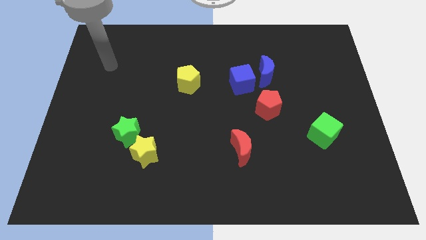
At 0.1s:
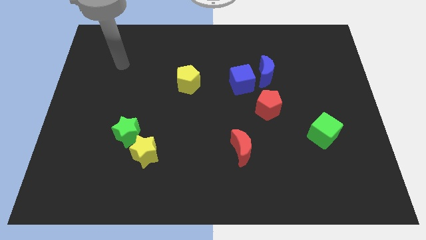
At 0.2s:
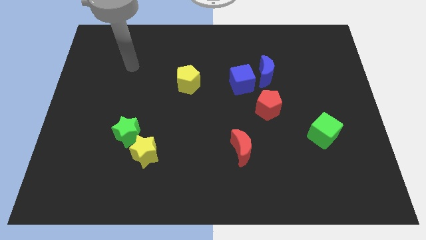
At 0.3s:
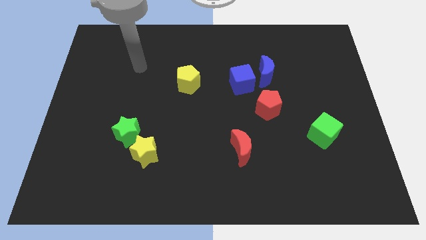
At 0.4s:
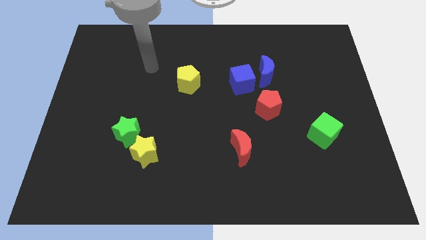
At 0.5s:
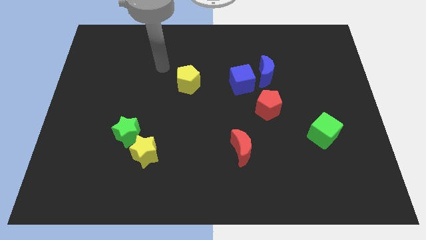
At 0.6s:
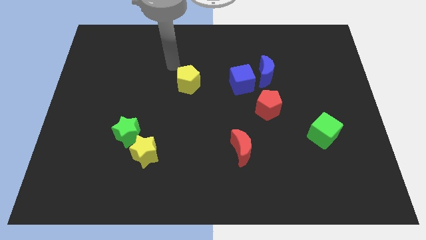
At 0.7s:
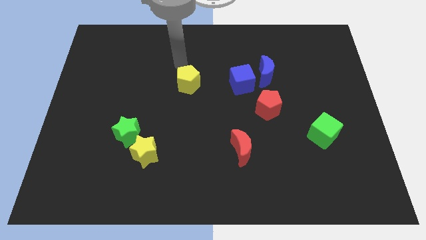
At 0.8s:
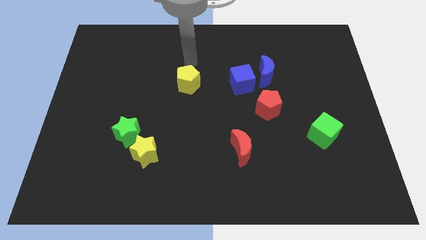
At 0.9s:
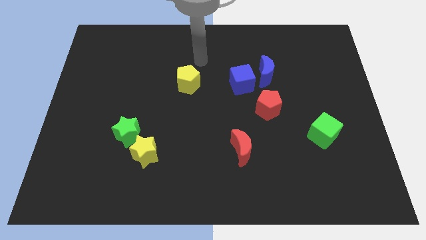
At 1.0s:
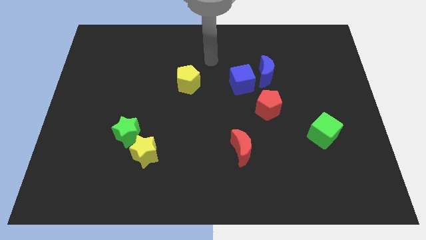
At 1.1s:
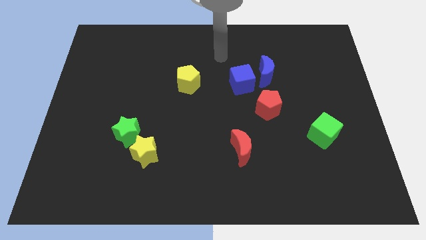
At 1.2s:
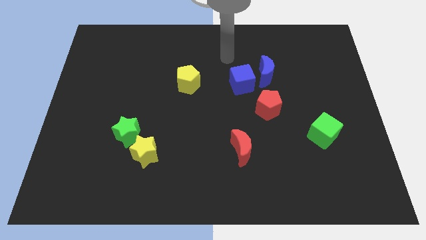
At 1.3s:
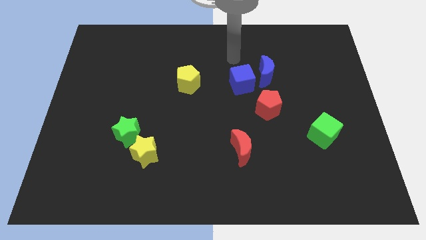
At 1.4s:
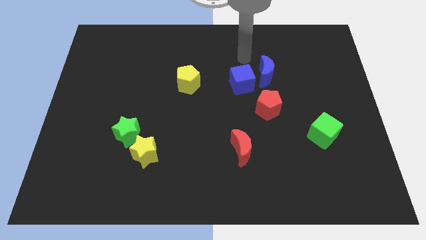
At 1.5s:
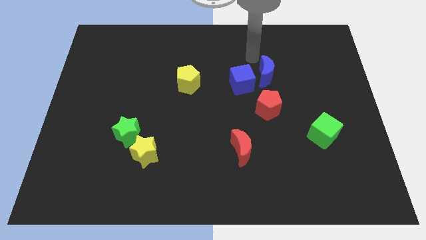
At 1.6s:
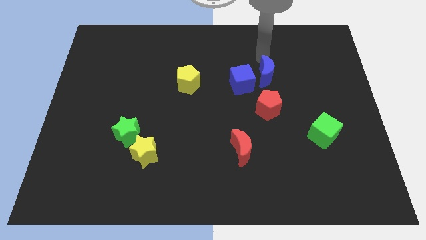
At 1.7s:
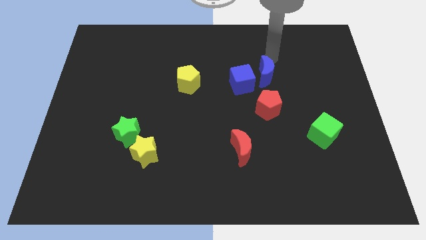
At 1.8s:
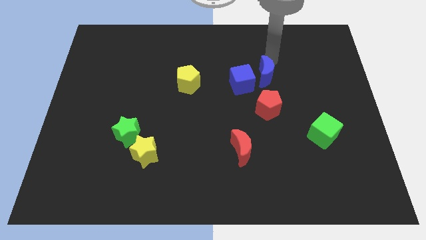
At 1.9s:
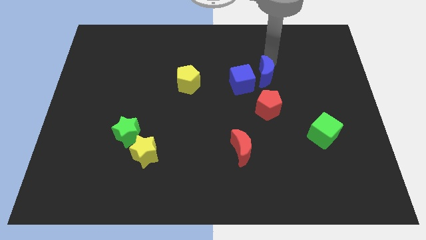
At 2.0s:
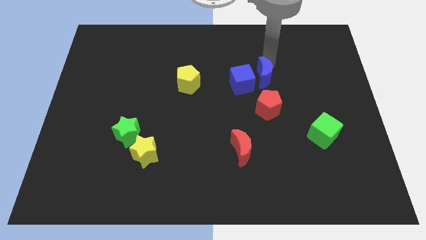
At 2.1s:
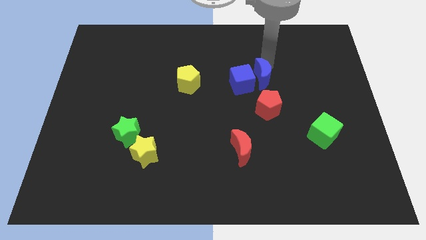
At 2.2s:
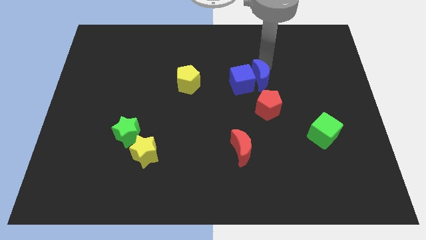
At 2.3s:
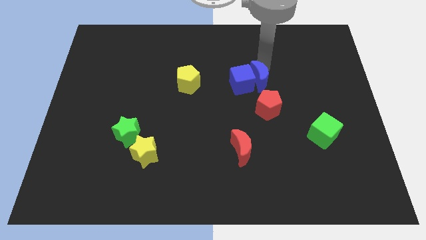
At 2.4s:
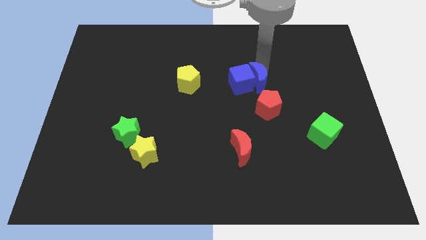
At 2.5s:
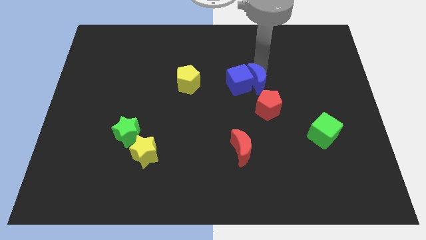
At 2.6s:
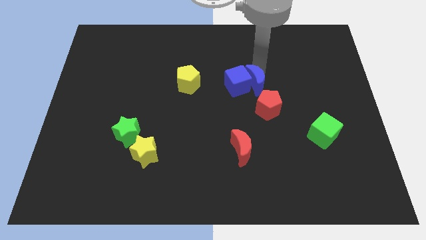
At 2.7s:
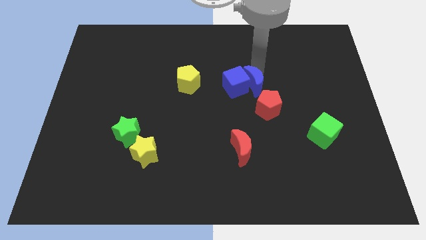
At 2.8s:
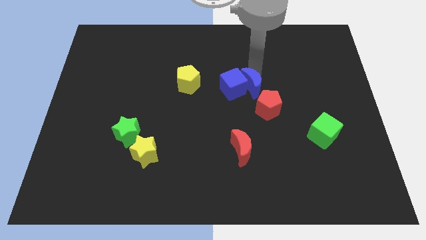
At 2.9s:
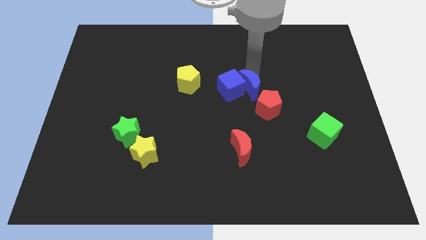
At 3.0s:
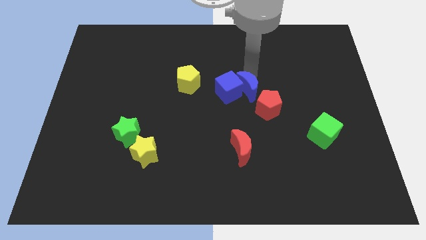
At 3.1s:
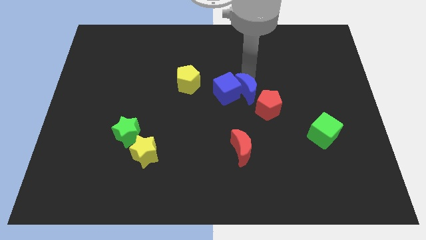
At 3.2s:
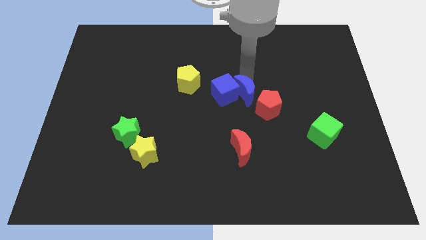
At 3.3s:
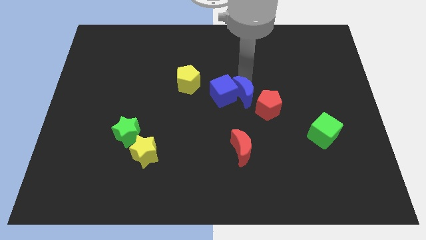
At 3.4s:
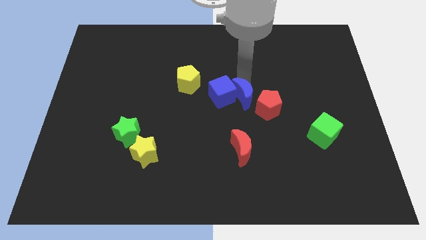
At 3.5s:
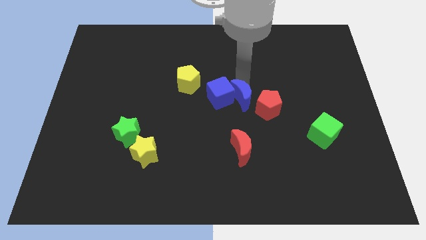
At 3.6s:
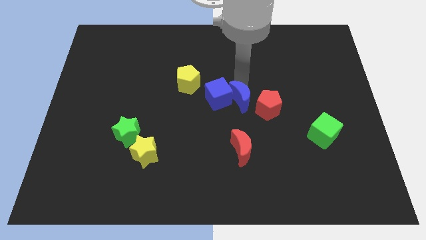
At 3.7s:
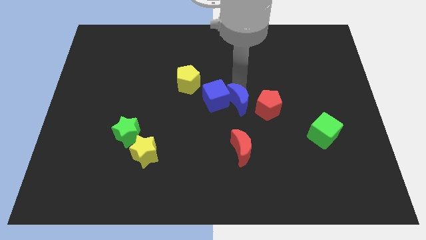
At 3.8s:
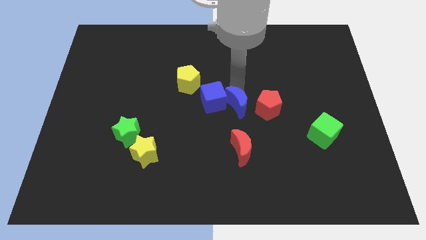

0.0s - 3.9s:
slightly move the blue moon down

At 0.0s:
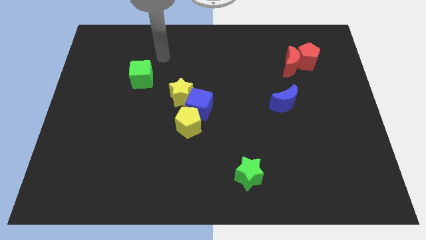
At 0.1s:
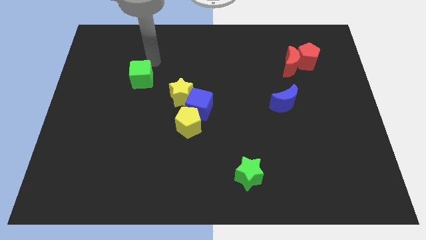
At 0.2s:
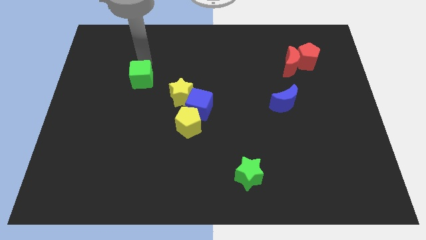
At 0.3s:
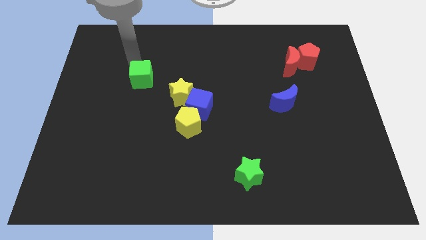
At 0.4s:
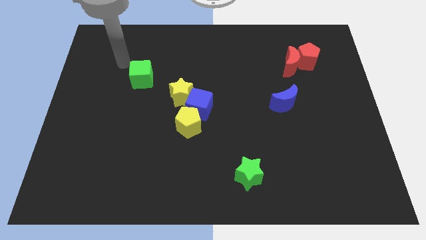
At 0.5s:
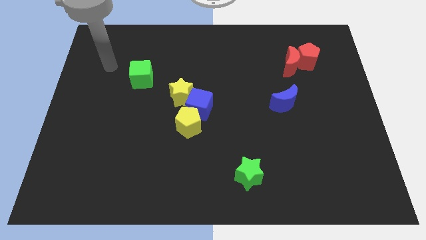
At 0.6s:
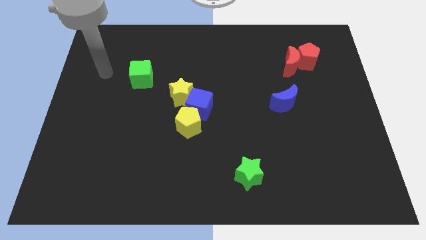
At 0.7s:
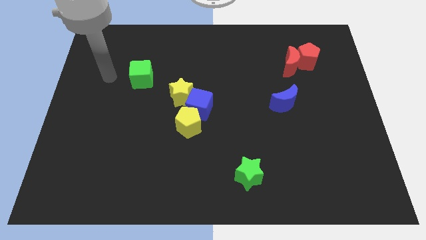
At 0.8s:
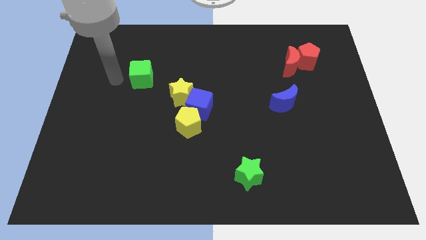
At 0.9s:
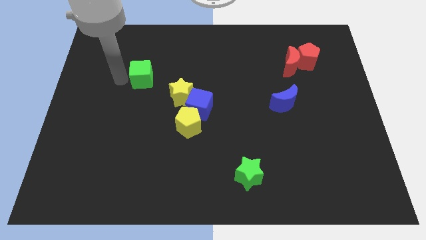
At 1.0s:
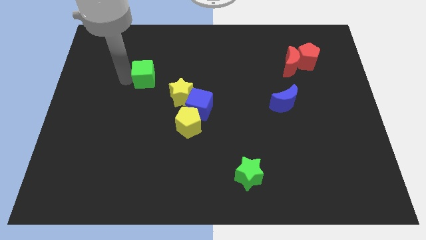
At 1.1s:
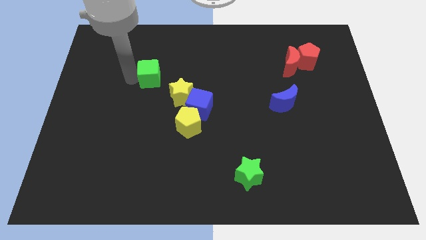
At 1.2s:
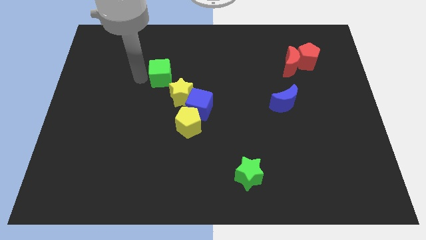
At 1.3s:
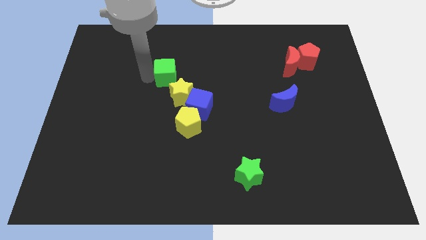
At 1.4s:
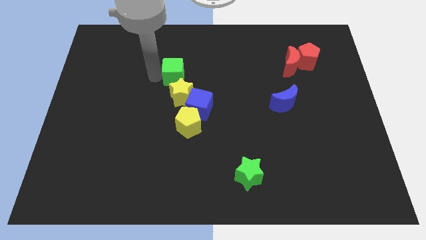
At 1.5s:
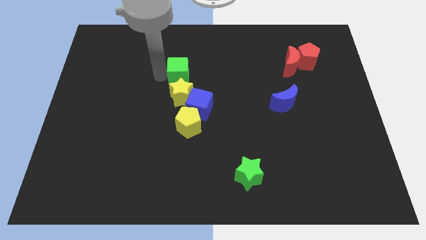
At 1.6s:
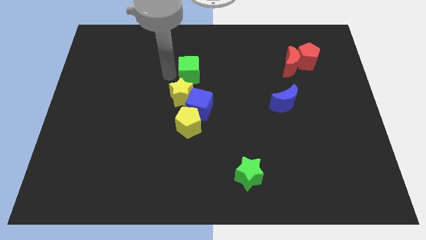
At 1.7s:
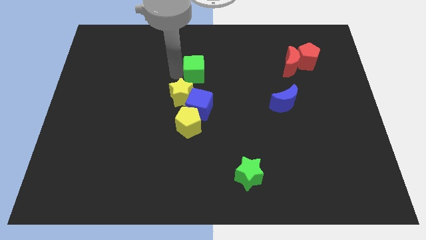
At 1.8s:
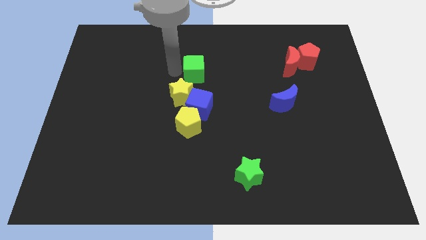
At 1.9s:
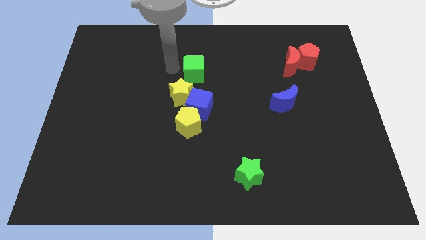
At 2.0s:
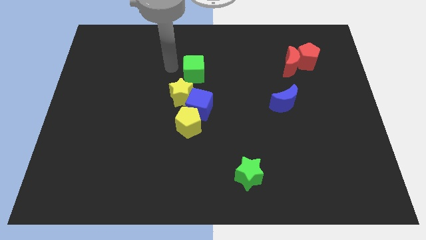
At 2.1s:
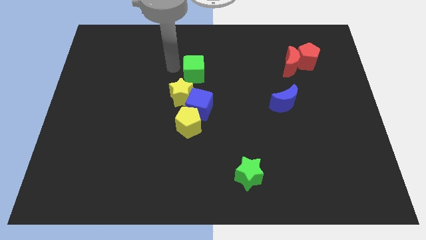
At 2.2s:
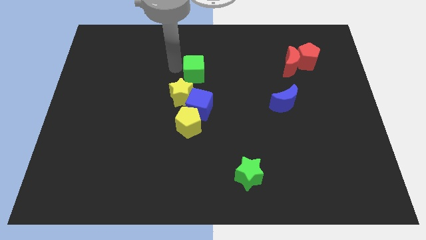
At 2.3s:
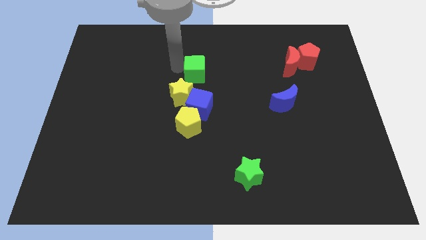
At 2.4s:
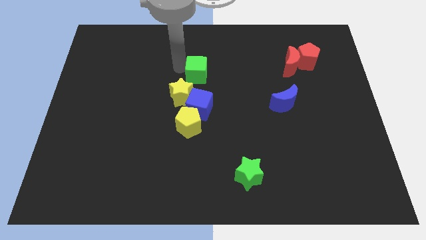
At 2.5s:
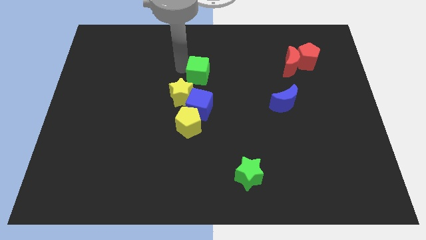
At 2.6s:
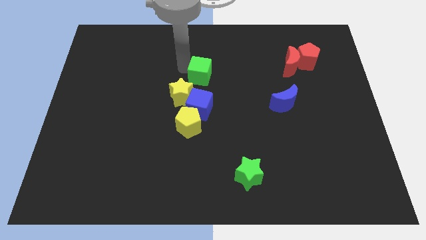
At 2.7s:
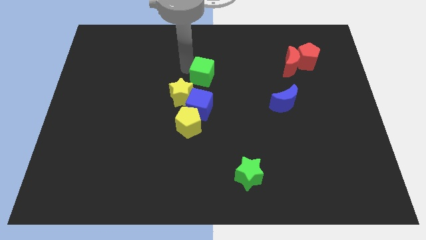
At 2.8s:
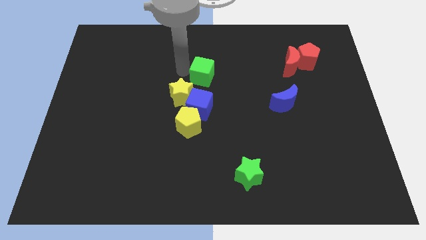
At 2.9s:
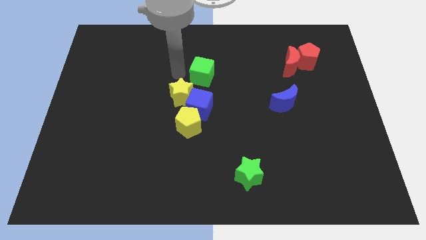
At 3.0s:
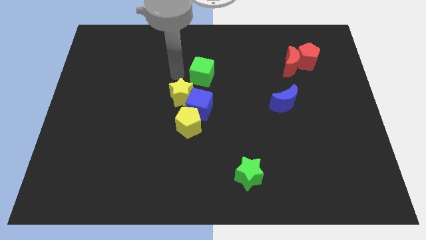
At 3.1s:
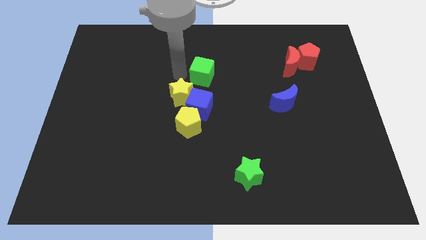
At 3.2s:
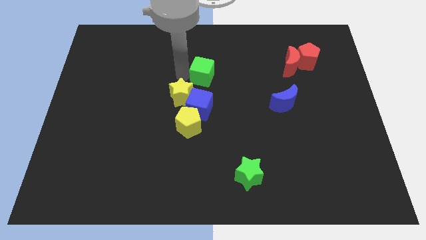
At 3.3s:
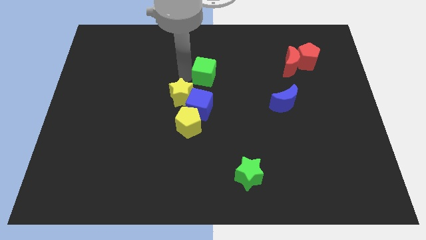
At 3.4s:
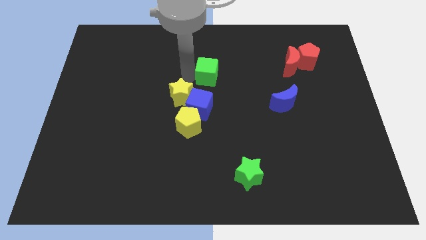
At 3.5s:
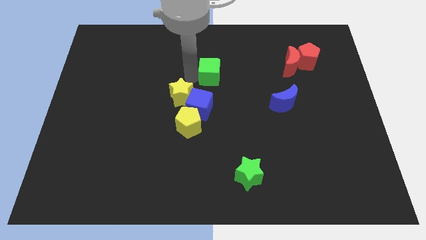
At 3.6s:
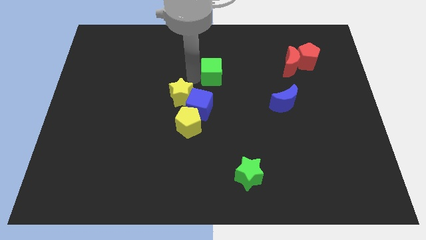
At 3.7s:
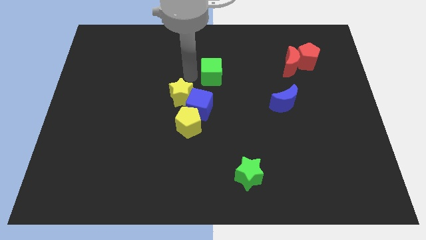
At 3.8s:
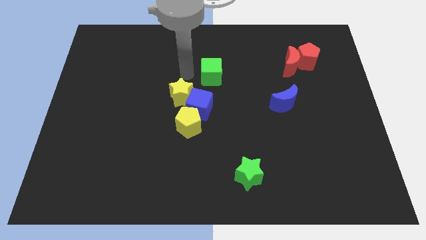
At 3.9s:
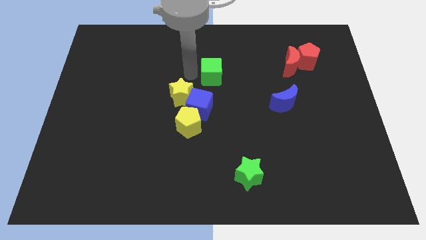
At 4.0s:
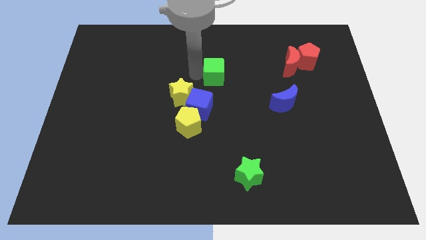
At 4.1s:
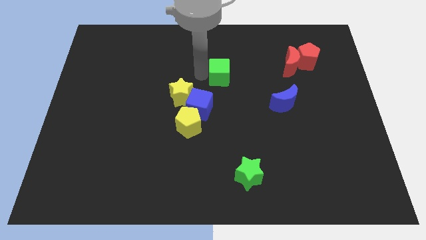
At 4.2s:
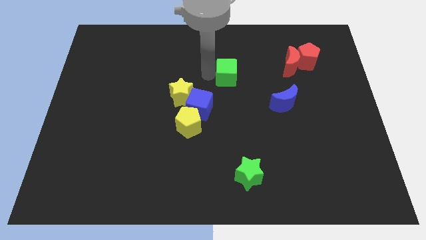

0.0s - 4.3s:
move the green cube right

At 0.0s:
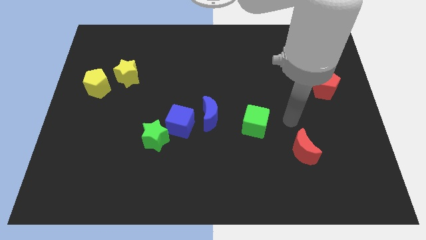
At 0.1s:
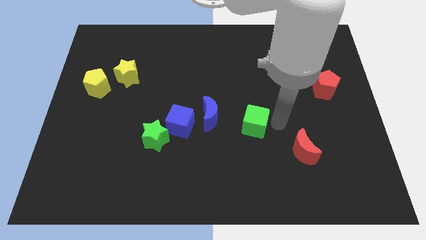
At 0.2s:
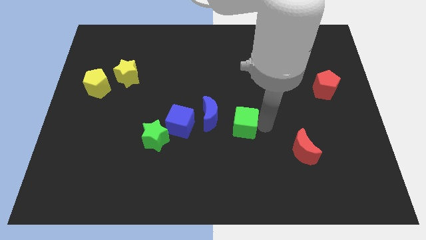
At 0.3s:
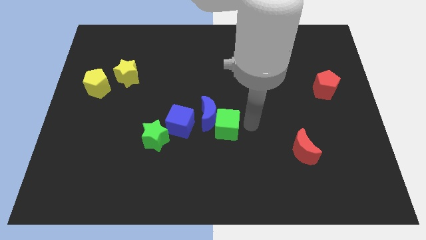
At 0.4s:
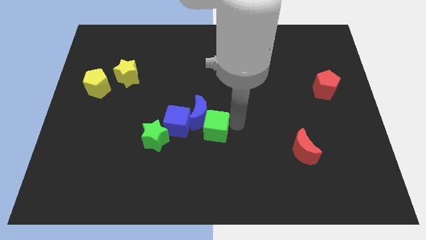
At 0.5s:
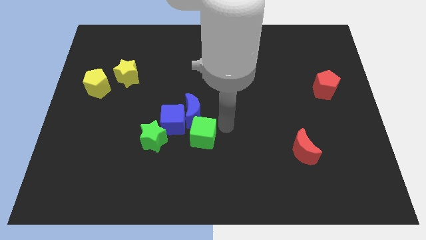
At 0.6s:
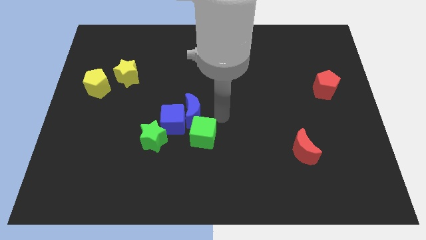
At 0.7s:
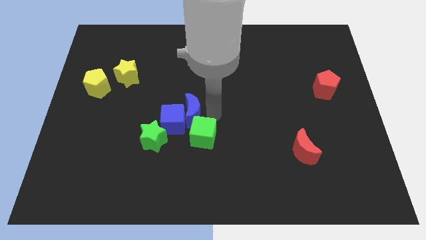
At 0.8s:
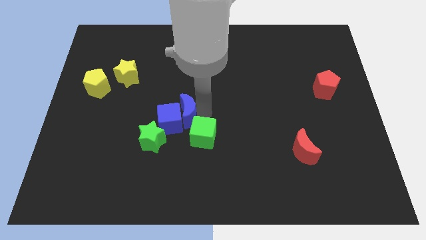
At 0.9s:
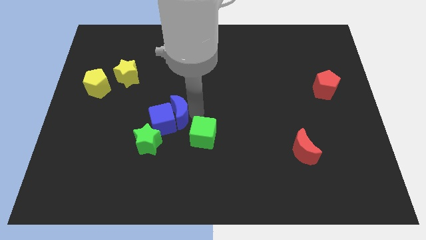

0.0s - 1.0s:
move the blue moon a bit to the left
